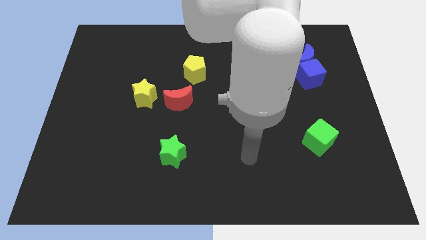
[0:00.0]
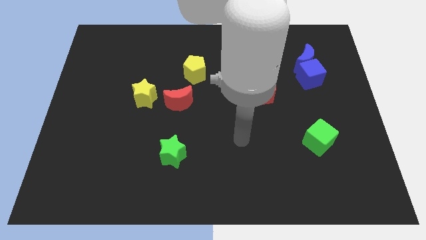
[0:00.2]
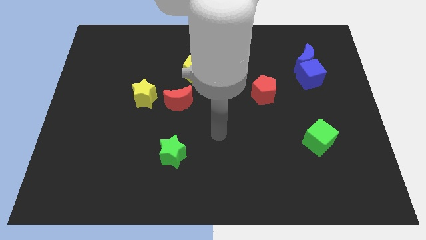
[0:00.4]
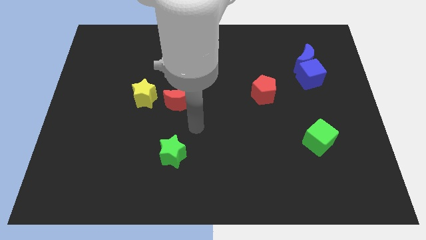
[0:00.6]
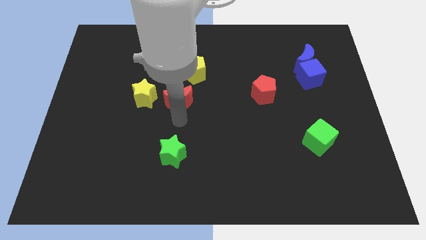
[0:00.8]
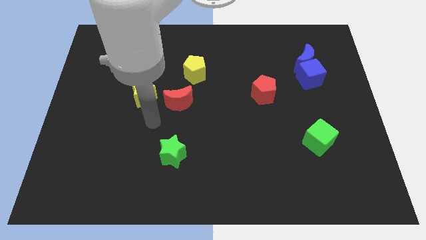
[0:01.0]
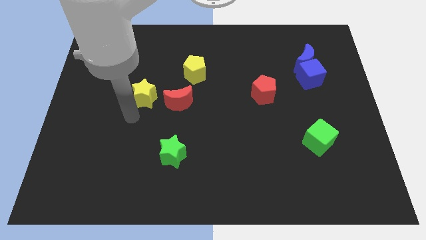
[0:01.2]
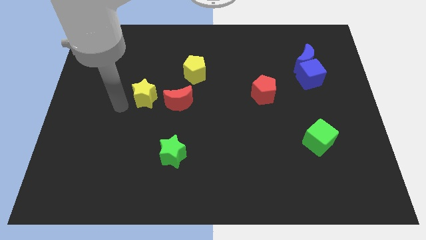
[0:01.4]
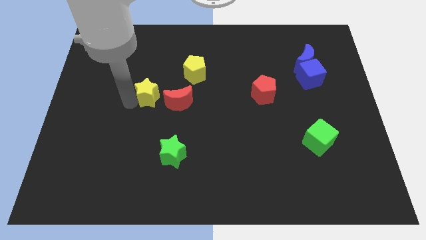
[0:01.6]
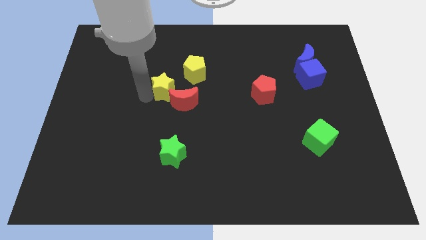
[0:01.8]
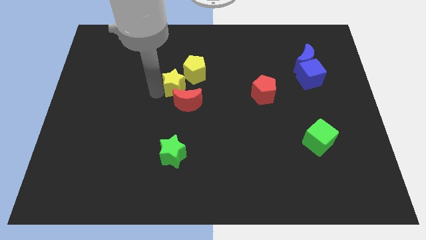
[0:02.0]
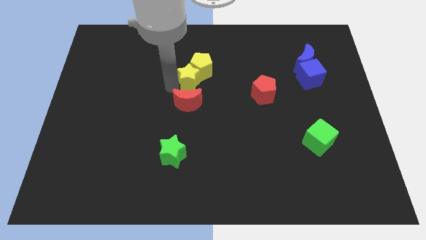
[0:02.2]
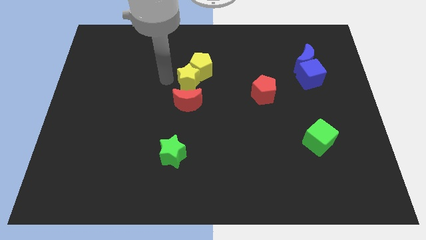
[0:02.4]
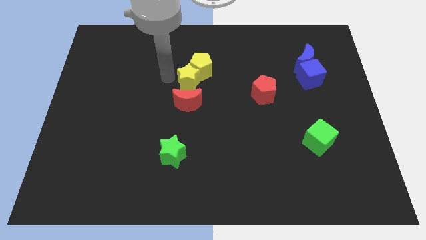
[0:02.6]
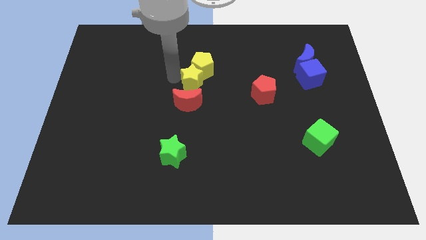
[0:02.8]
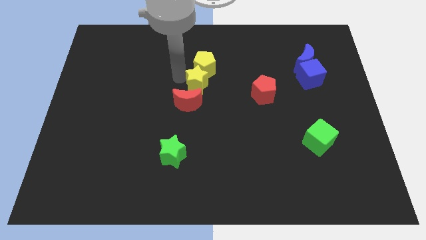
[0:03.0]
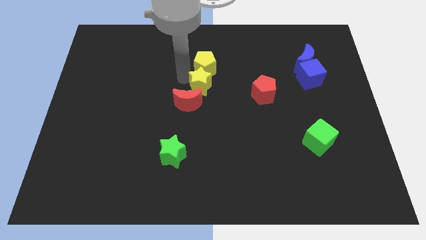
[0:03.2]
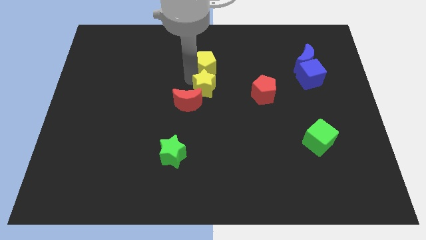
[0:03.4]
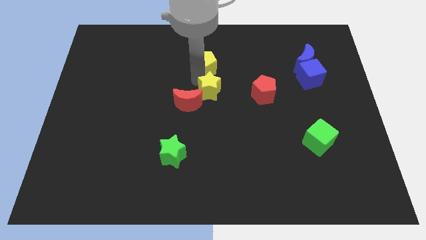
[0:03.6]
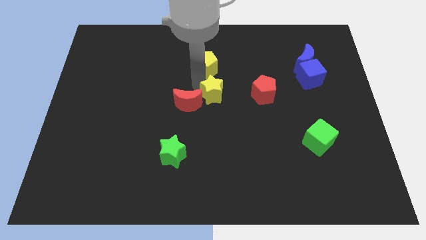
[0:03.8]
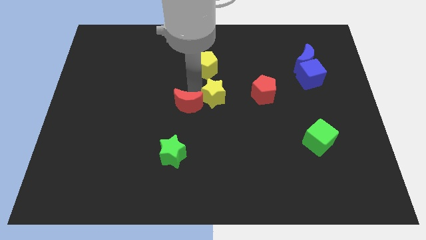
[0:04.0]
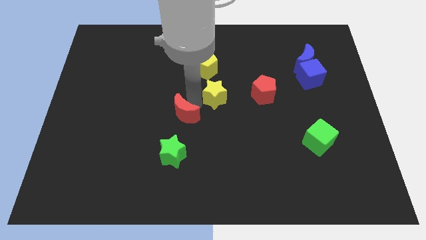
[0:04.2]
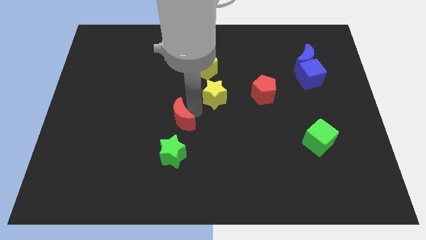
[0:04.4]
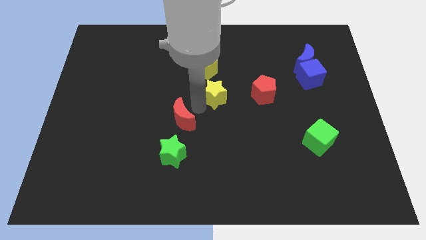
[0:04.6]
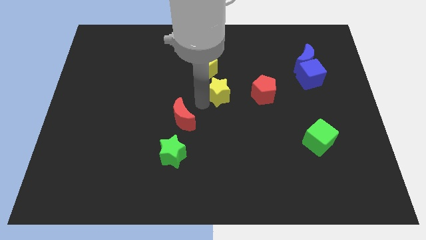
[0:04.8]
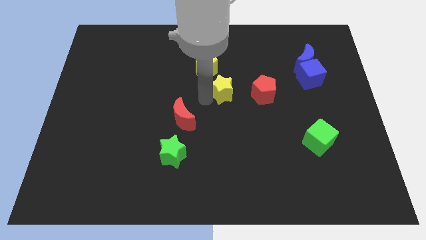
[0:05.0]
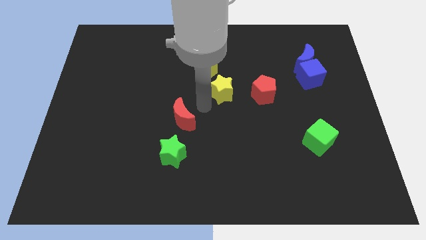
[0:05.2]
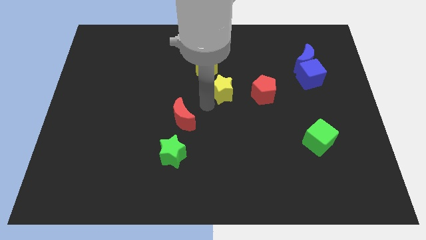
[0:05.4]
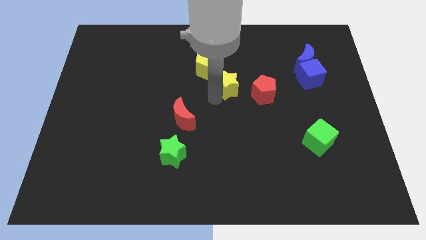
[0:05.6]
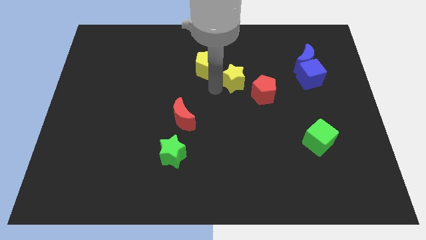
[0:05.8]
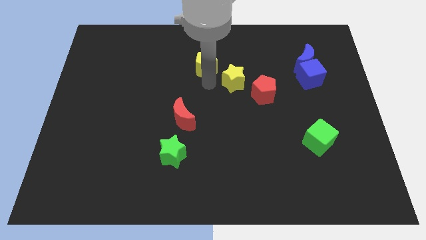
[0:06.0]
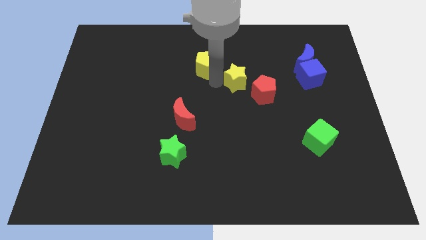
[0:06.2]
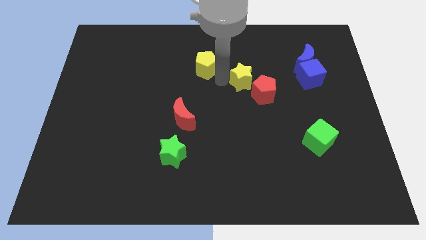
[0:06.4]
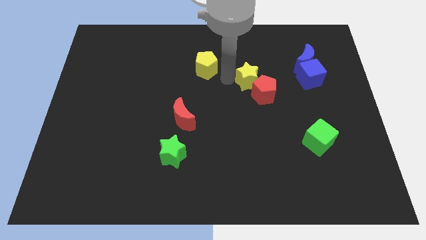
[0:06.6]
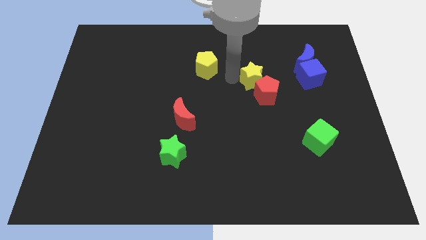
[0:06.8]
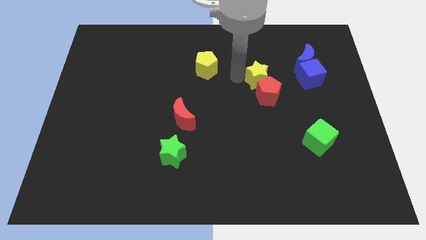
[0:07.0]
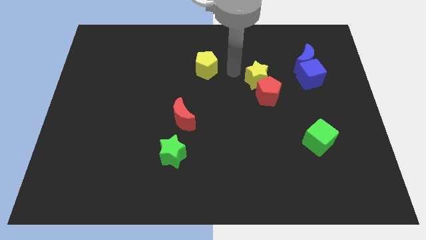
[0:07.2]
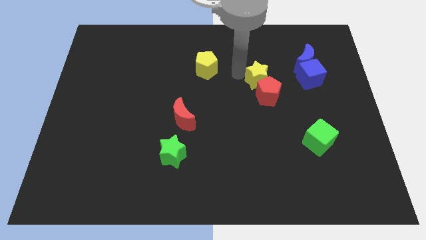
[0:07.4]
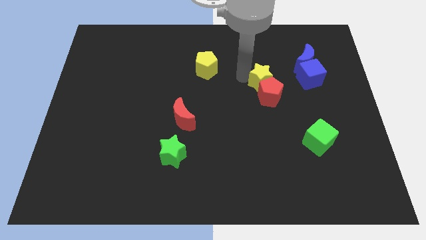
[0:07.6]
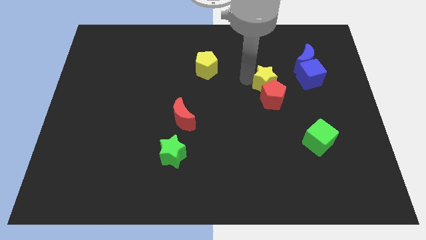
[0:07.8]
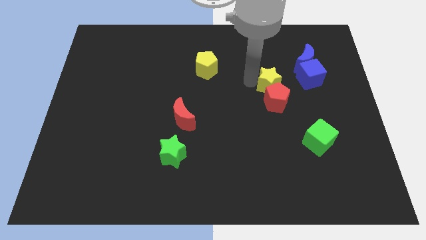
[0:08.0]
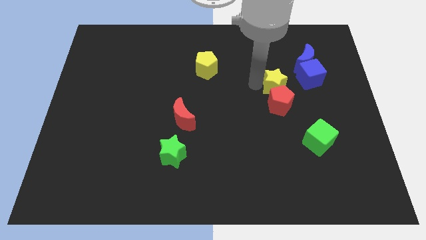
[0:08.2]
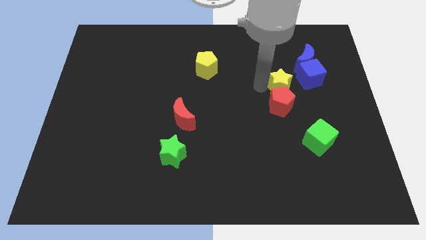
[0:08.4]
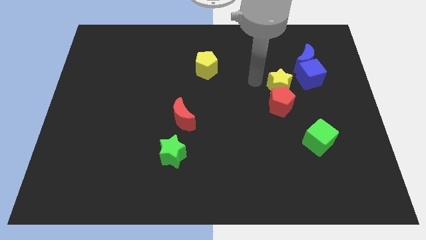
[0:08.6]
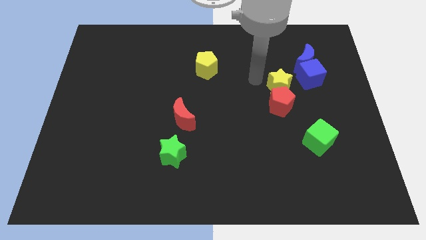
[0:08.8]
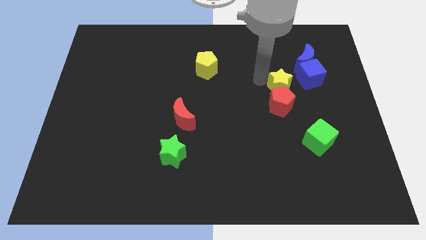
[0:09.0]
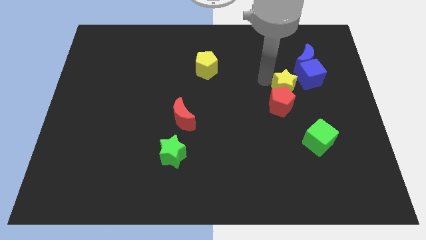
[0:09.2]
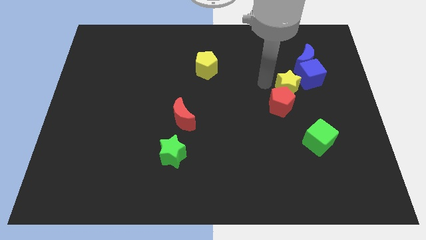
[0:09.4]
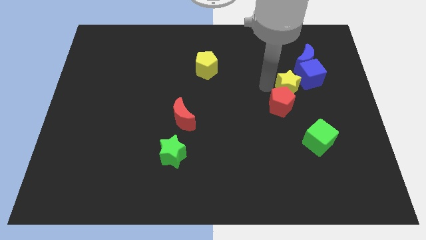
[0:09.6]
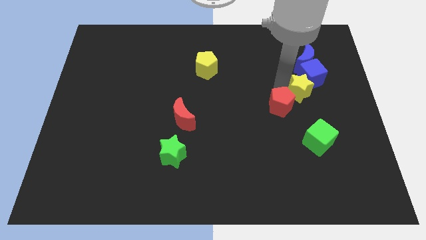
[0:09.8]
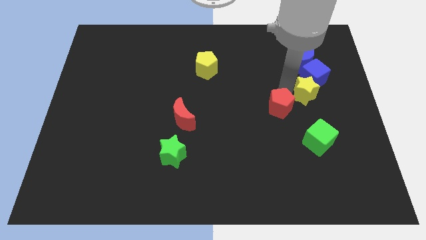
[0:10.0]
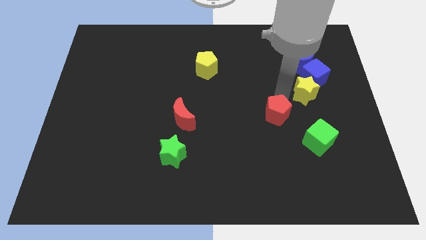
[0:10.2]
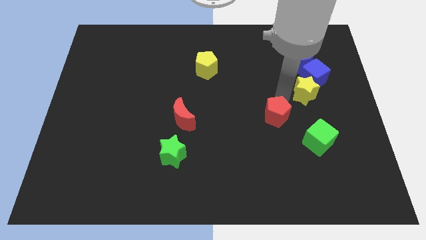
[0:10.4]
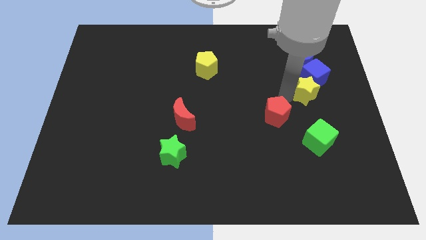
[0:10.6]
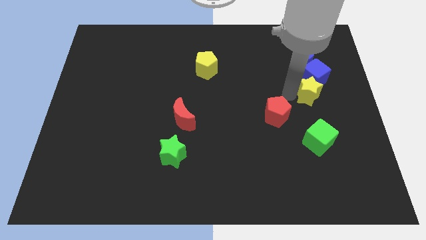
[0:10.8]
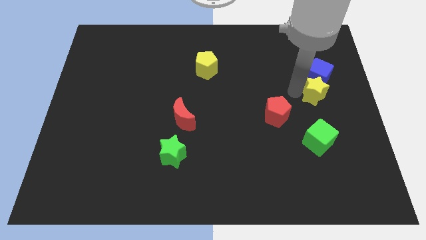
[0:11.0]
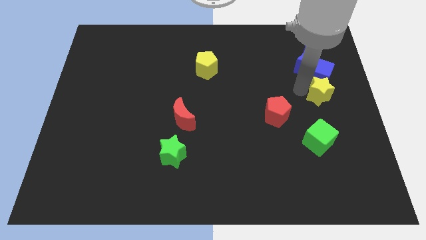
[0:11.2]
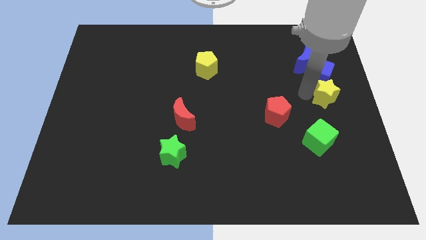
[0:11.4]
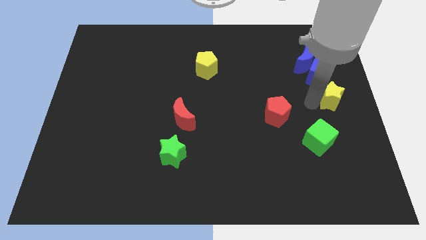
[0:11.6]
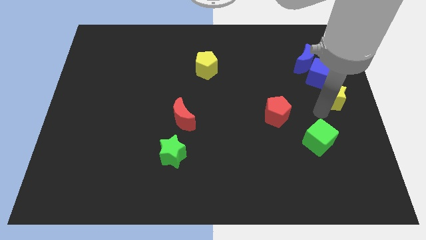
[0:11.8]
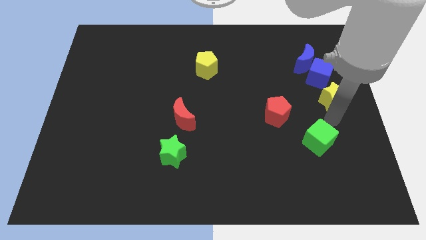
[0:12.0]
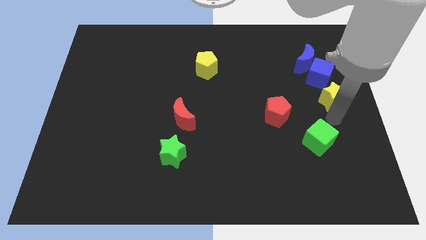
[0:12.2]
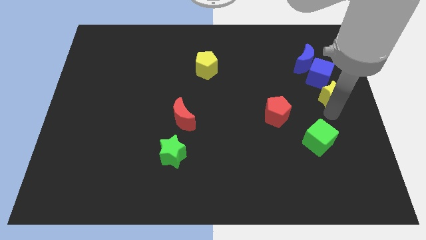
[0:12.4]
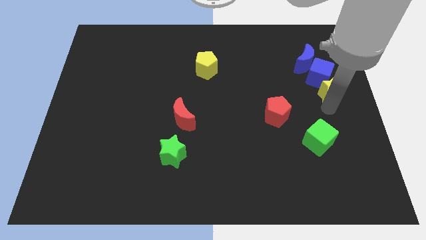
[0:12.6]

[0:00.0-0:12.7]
slide the yellow star to the bottom right of the blue moon

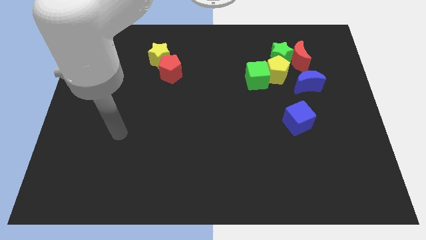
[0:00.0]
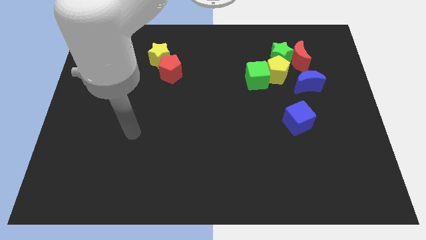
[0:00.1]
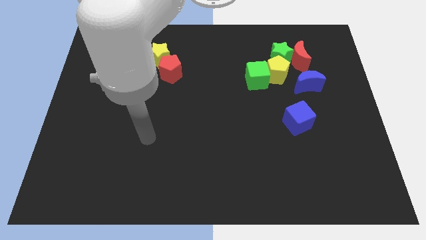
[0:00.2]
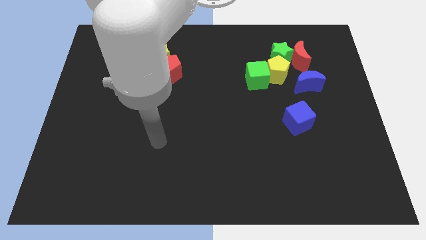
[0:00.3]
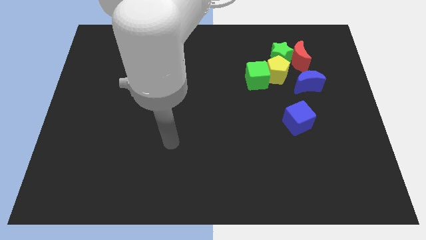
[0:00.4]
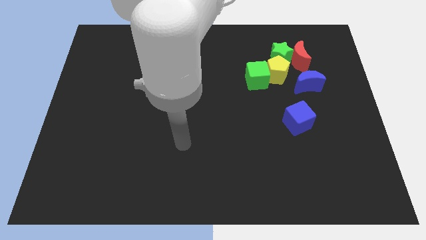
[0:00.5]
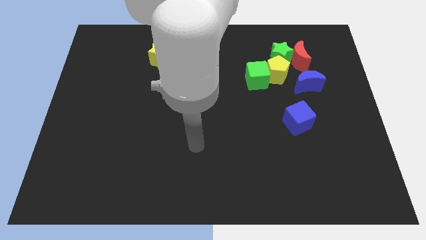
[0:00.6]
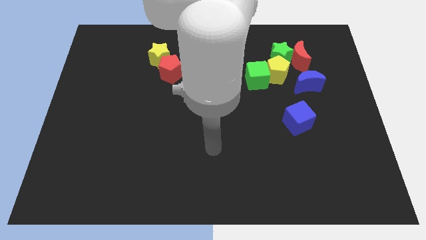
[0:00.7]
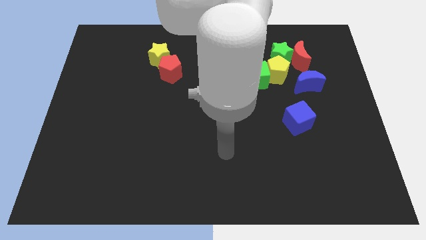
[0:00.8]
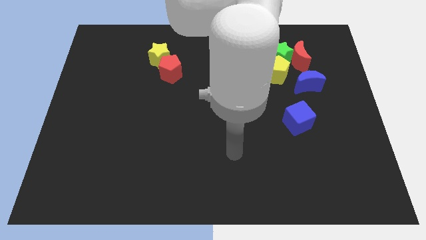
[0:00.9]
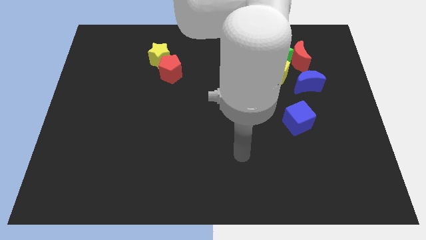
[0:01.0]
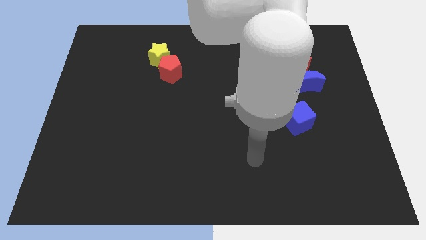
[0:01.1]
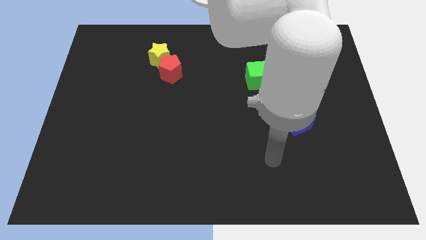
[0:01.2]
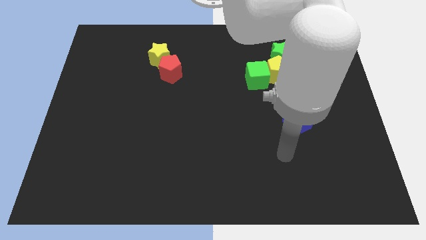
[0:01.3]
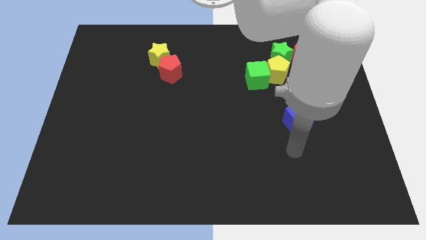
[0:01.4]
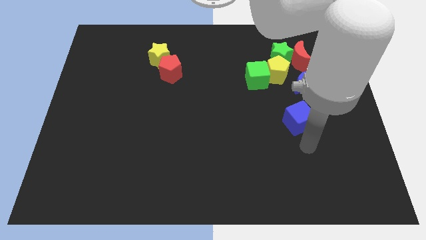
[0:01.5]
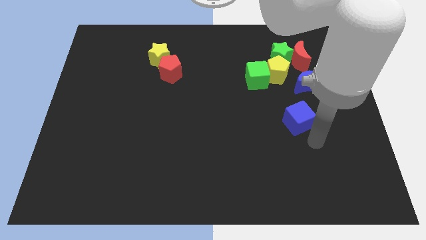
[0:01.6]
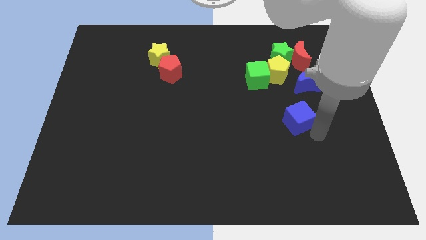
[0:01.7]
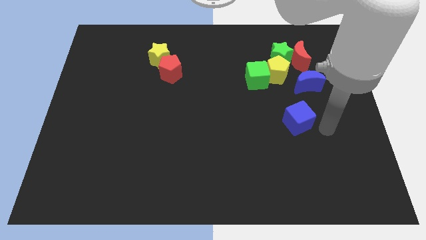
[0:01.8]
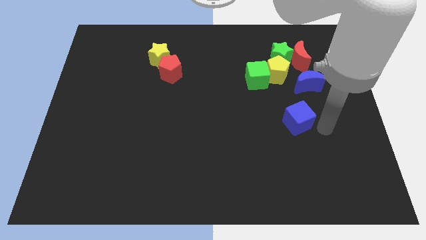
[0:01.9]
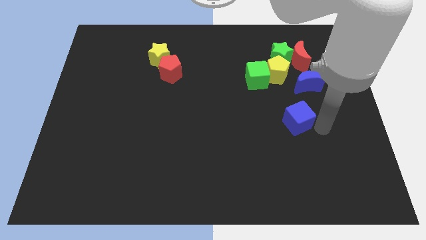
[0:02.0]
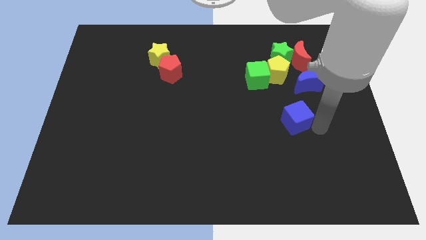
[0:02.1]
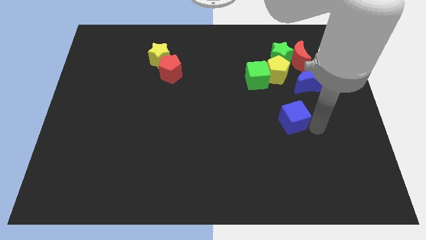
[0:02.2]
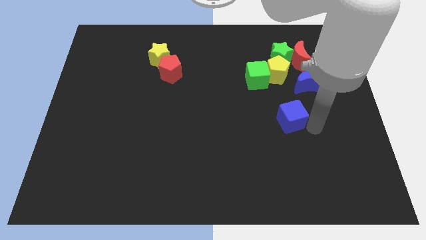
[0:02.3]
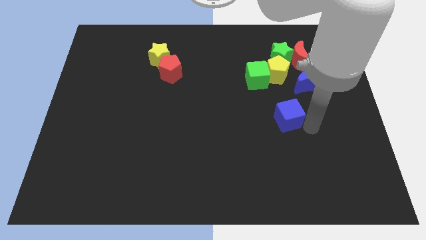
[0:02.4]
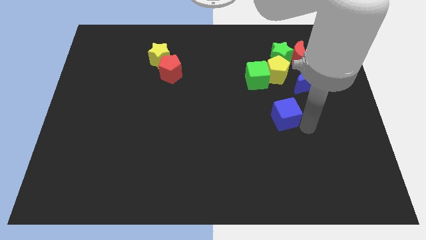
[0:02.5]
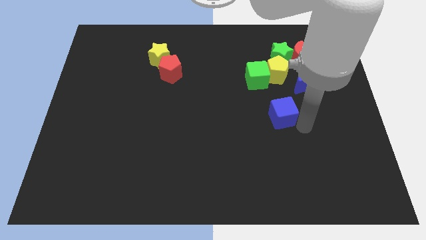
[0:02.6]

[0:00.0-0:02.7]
slide the blue cube to the bottom of the green cube
